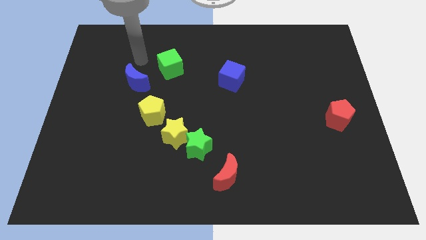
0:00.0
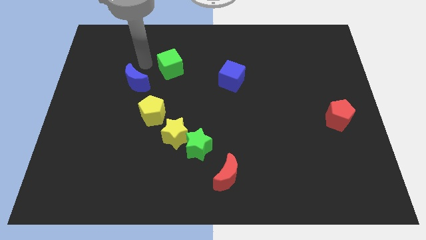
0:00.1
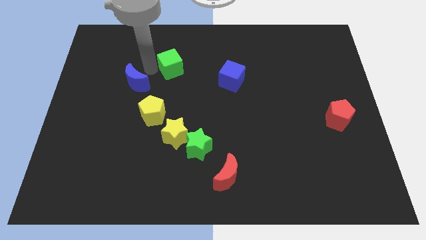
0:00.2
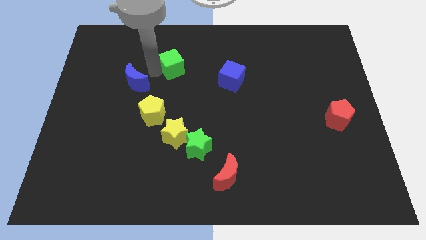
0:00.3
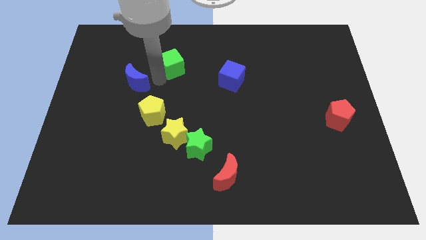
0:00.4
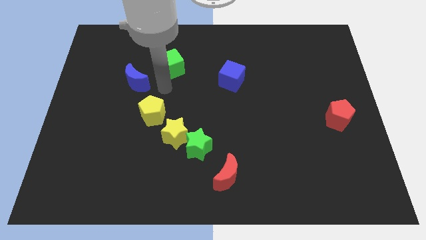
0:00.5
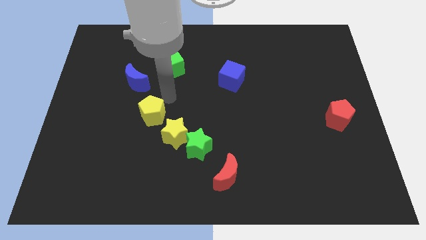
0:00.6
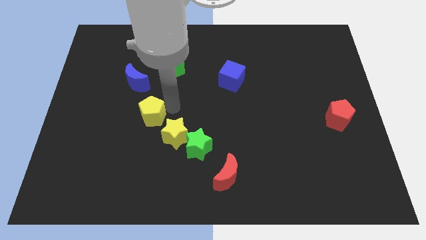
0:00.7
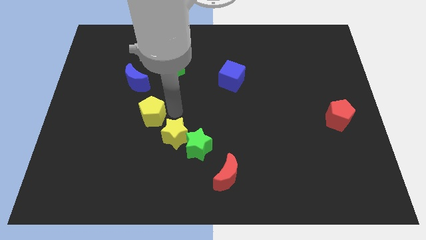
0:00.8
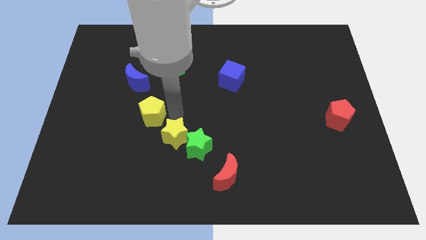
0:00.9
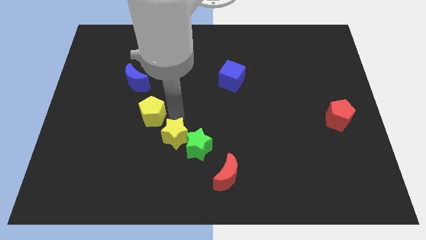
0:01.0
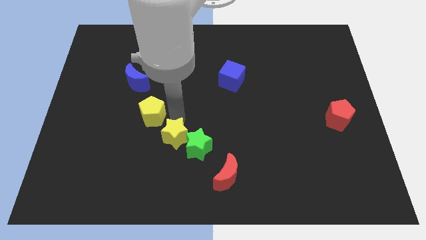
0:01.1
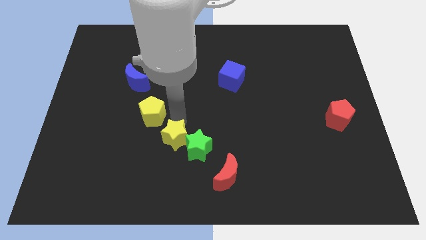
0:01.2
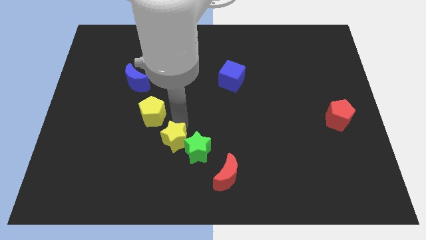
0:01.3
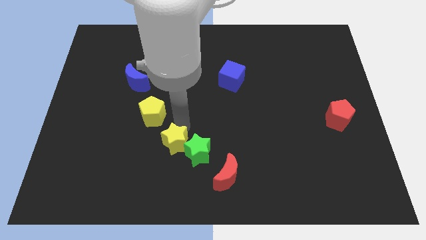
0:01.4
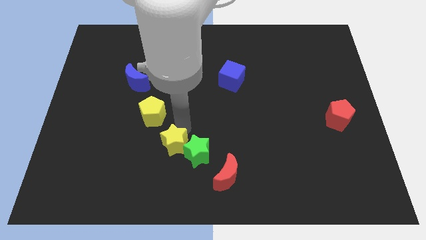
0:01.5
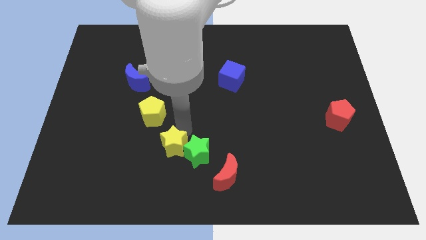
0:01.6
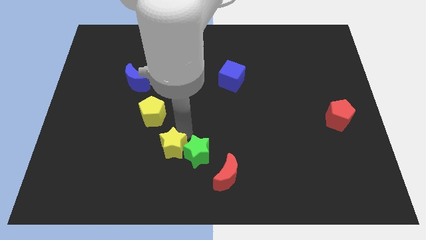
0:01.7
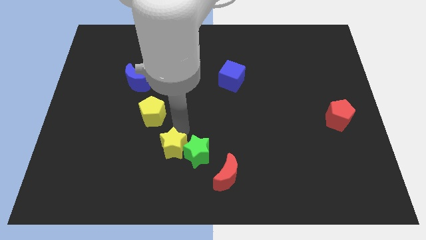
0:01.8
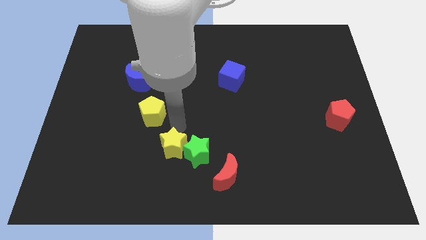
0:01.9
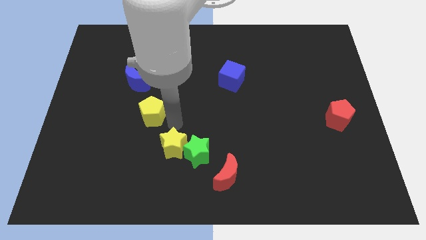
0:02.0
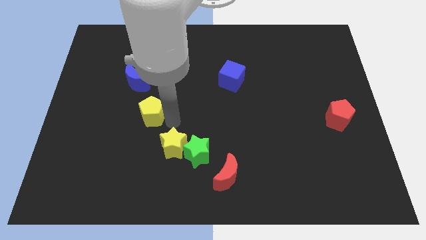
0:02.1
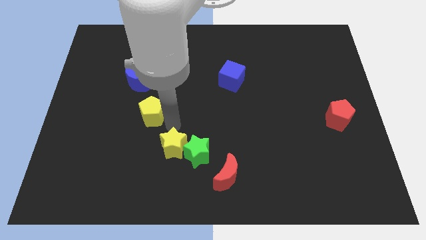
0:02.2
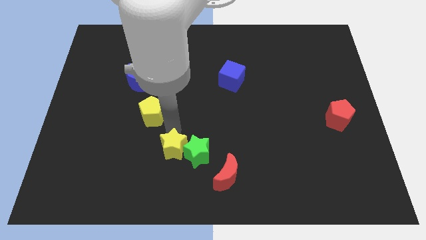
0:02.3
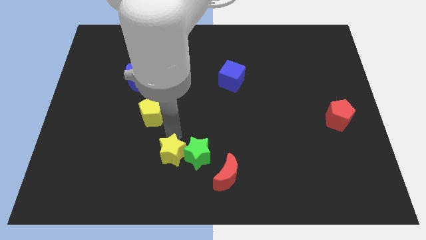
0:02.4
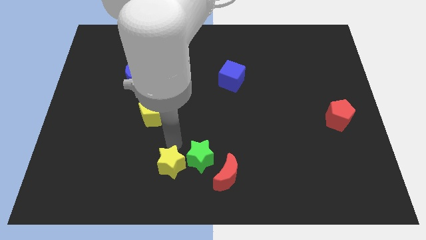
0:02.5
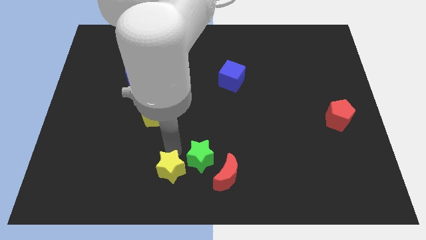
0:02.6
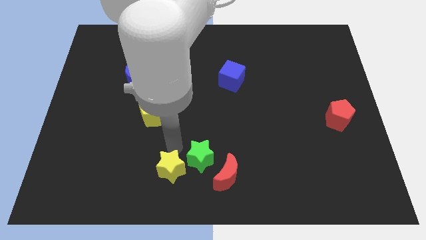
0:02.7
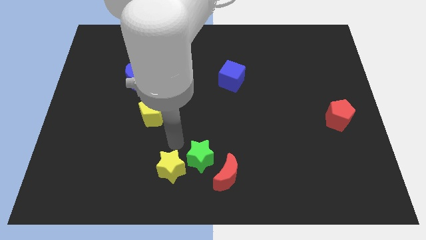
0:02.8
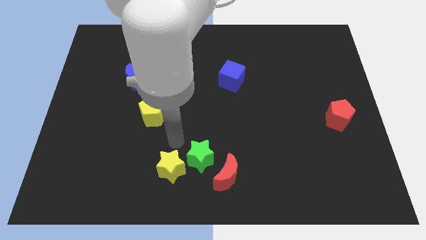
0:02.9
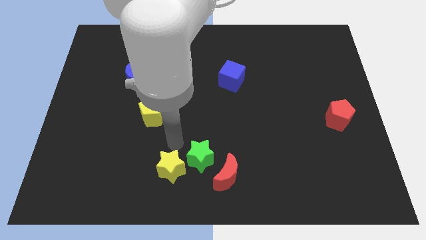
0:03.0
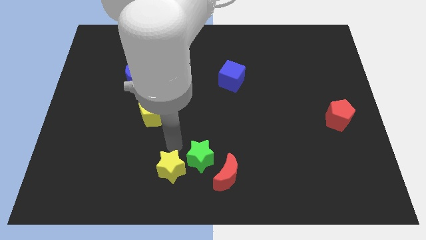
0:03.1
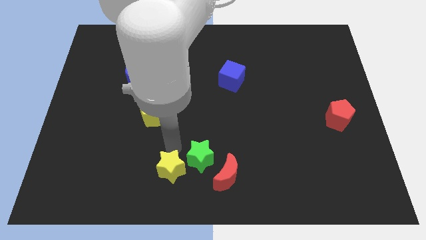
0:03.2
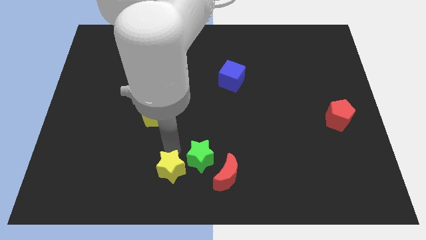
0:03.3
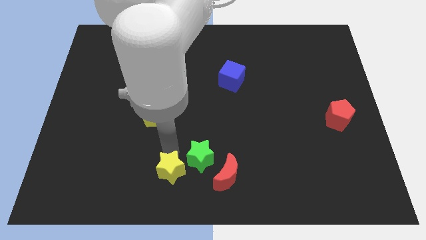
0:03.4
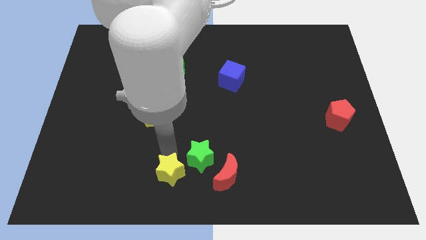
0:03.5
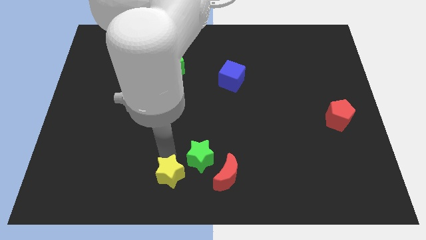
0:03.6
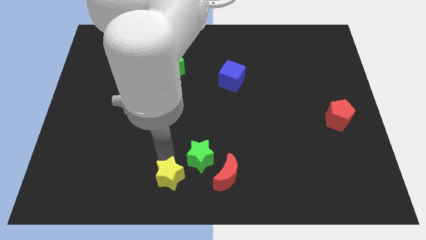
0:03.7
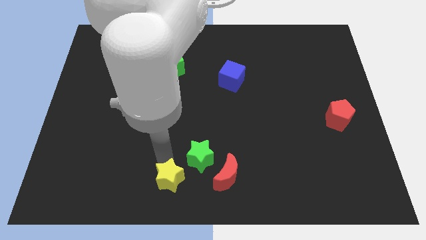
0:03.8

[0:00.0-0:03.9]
separate the yellow star from the green star and yellow pentagon

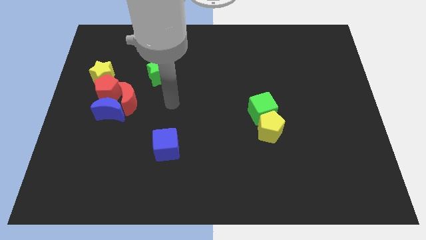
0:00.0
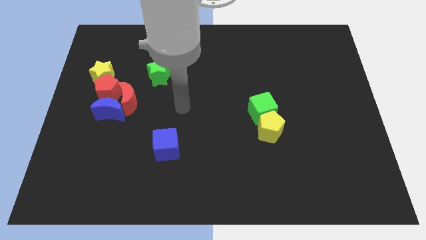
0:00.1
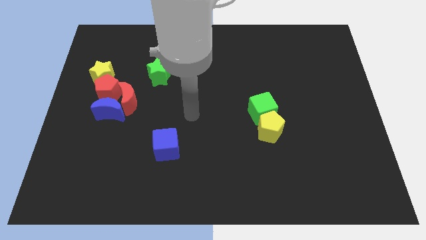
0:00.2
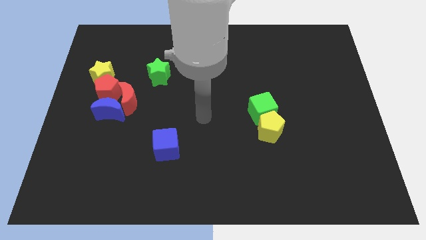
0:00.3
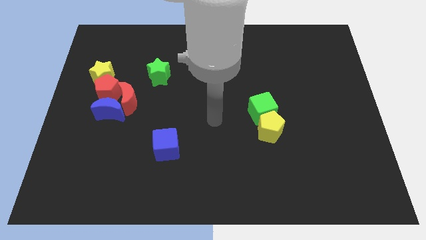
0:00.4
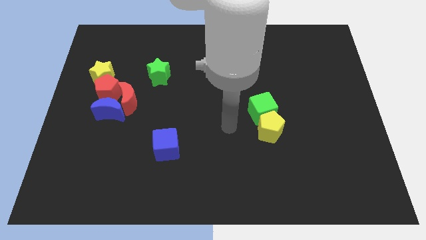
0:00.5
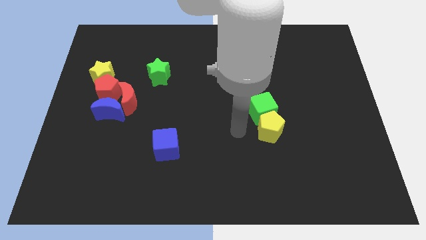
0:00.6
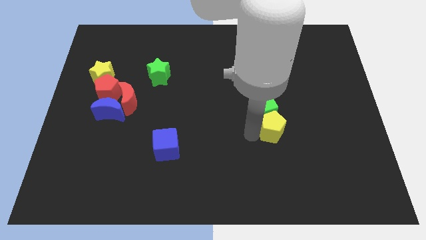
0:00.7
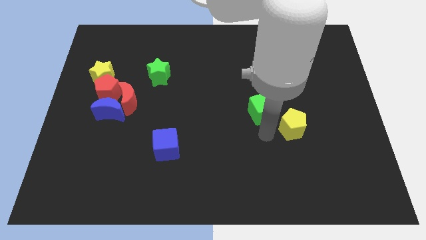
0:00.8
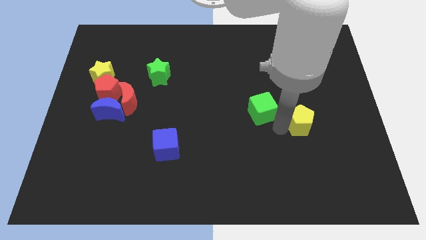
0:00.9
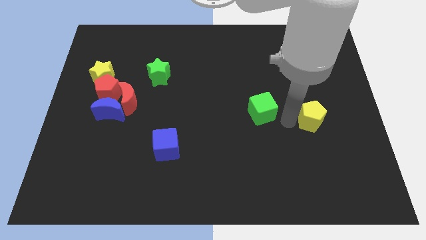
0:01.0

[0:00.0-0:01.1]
pull the green cube apart from the yellow pentagon

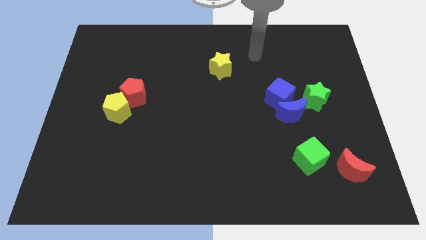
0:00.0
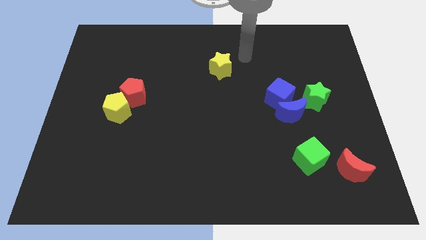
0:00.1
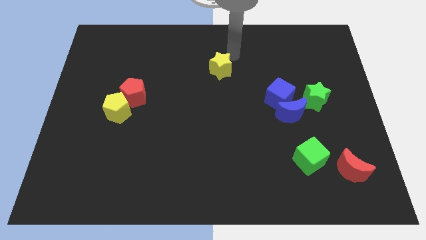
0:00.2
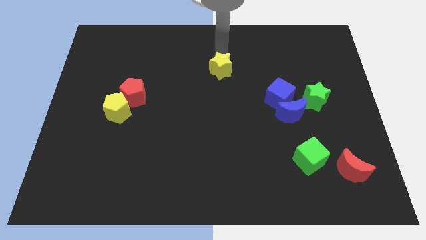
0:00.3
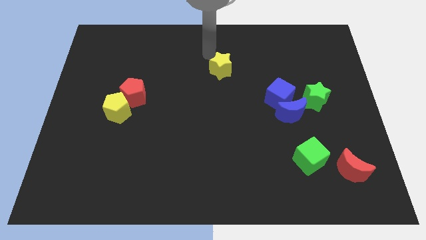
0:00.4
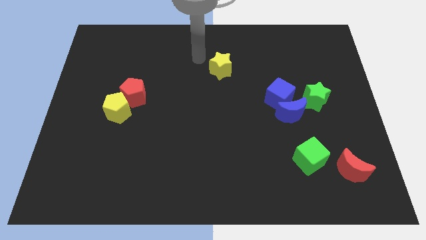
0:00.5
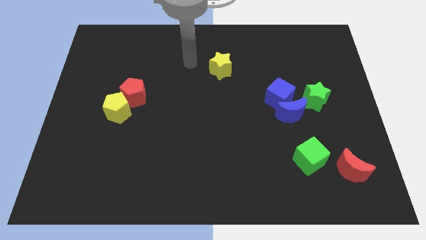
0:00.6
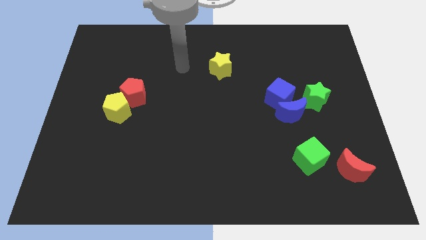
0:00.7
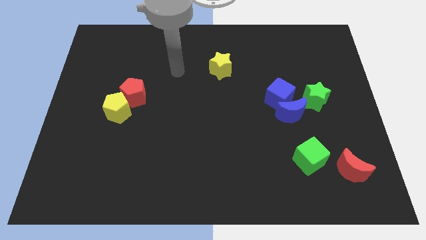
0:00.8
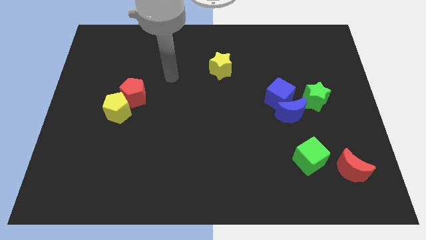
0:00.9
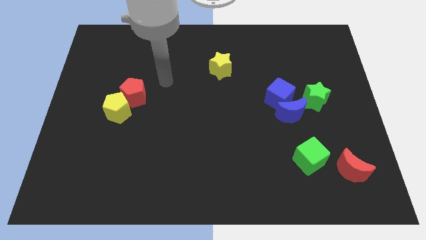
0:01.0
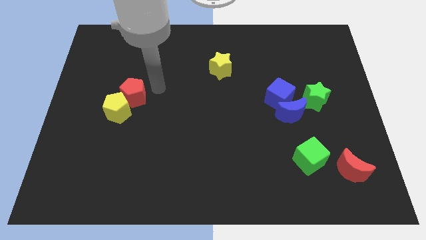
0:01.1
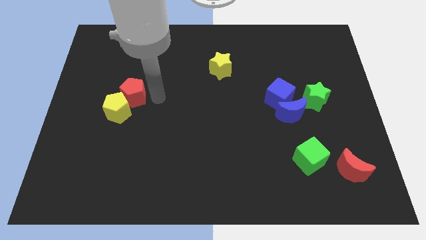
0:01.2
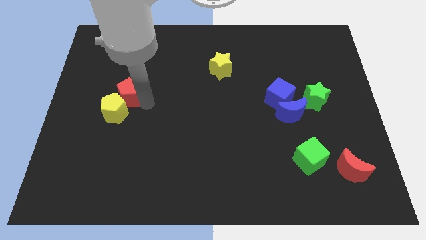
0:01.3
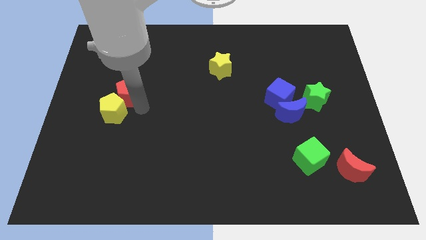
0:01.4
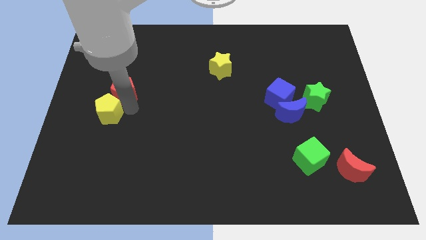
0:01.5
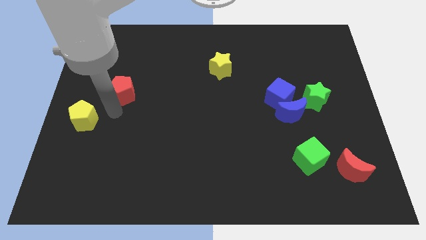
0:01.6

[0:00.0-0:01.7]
pull the red pentagon apart from the yellow pentagon

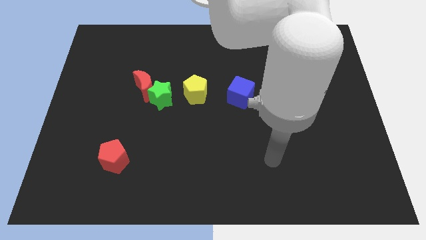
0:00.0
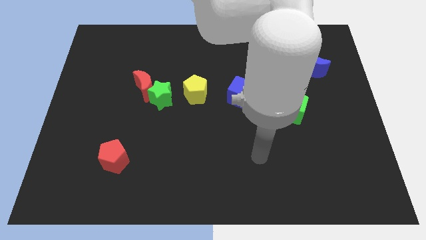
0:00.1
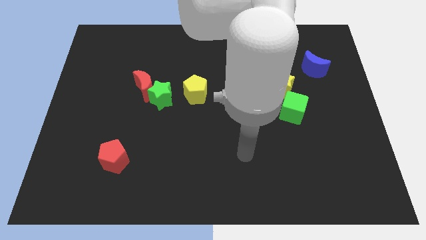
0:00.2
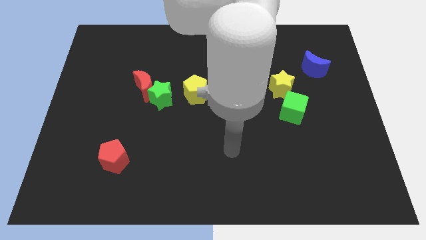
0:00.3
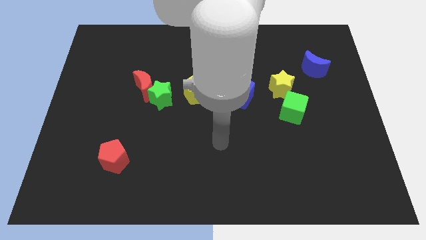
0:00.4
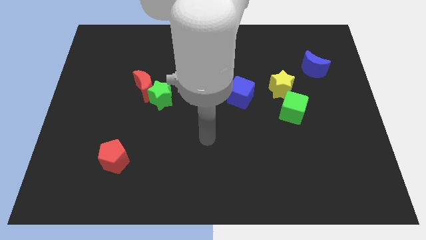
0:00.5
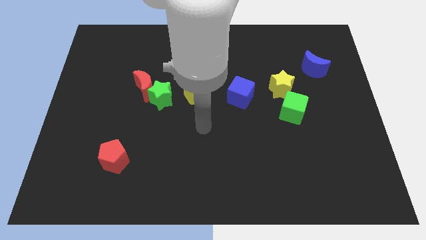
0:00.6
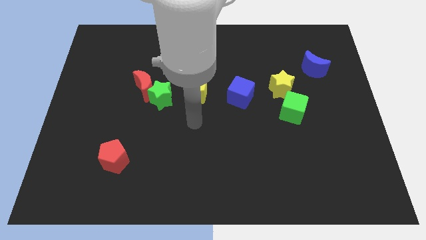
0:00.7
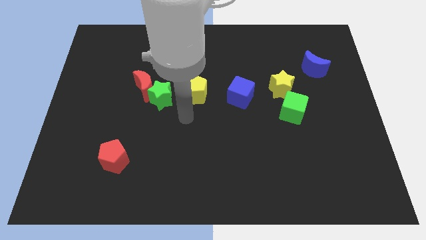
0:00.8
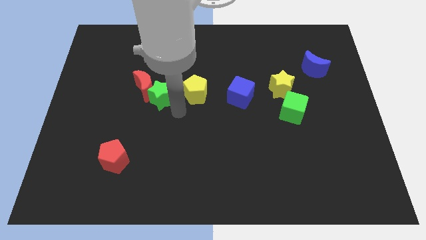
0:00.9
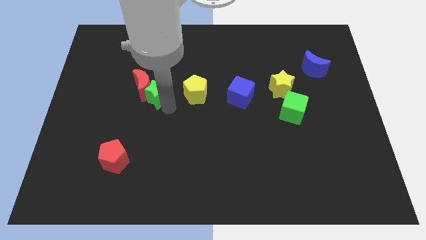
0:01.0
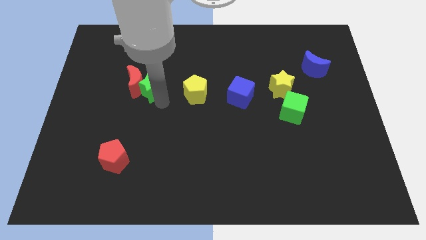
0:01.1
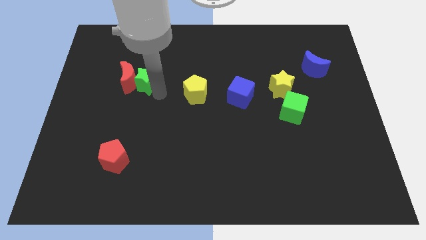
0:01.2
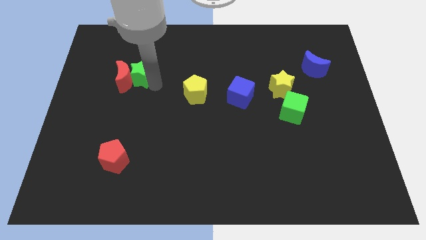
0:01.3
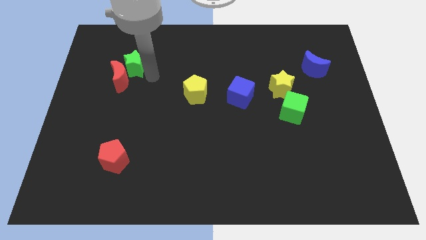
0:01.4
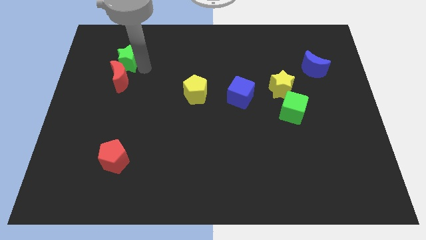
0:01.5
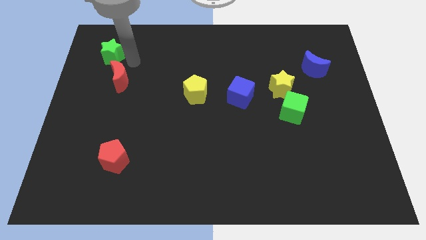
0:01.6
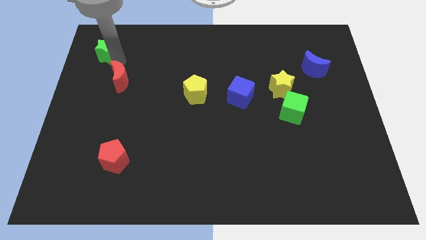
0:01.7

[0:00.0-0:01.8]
pull the red moon apart from the green star

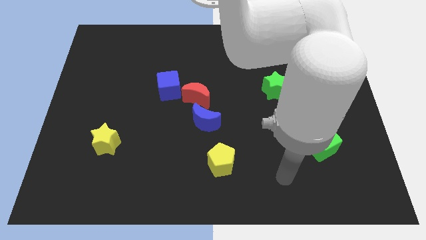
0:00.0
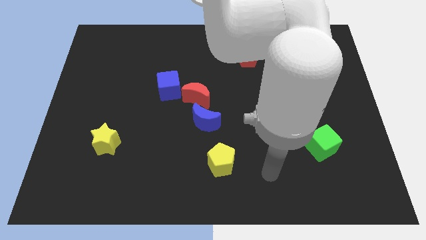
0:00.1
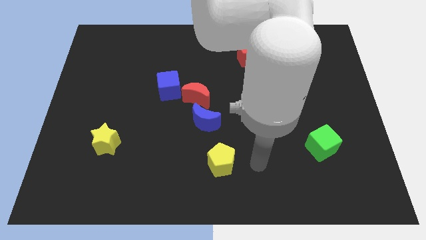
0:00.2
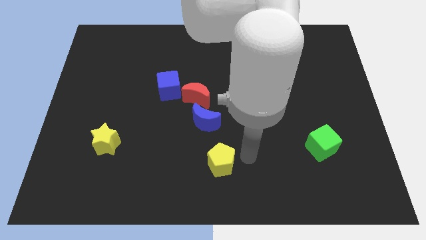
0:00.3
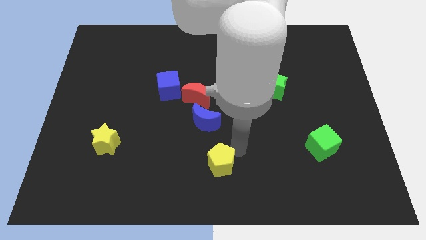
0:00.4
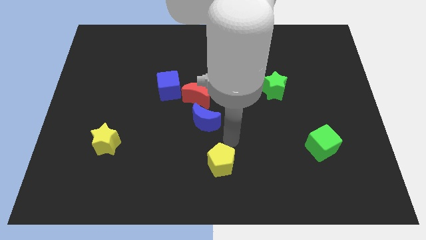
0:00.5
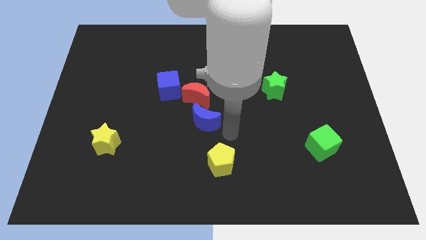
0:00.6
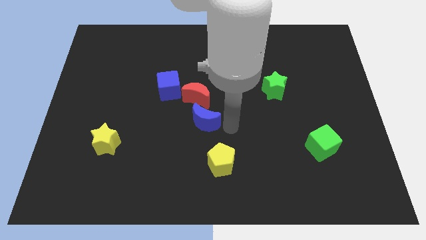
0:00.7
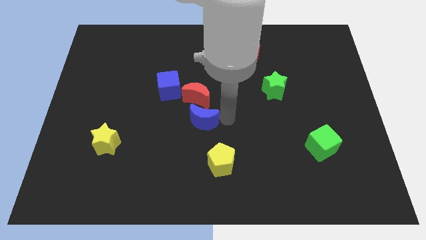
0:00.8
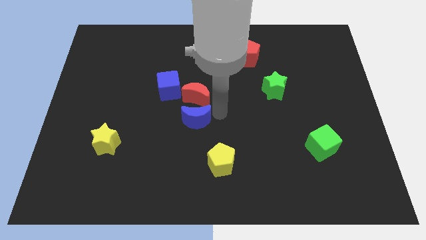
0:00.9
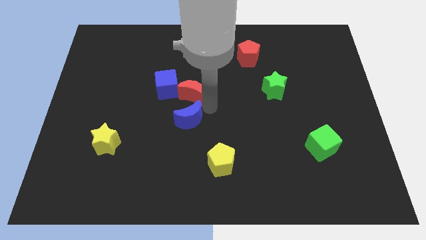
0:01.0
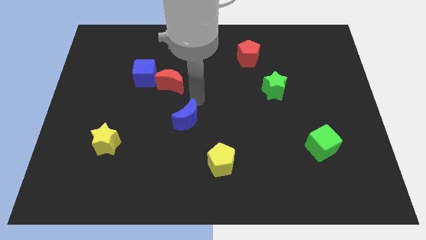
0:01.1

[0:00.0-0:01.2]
move the blue moon away from the red moon
